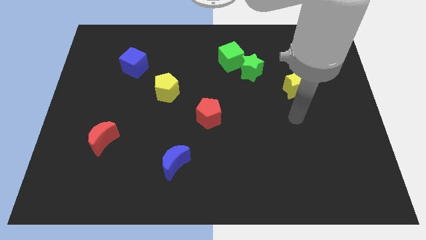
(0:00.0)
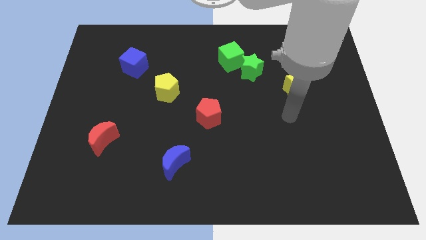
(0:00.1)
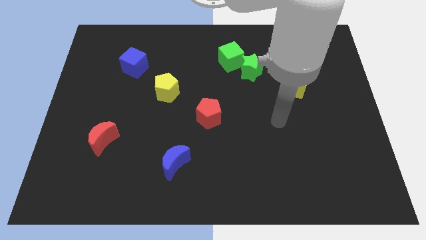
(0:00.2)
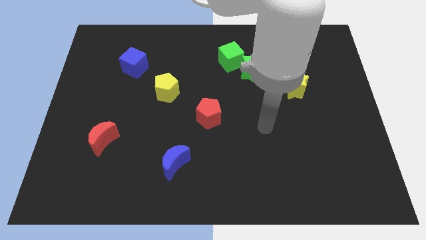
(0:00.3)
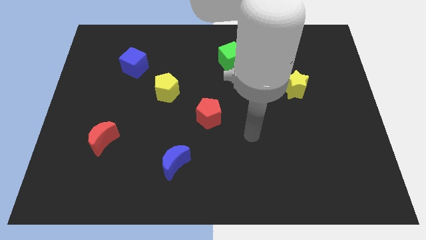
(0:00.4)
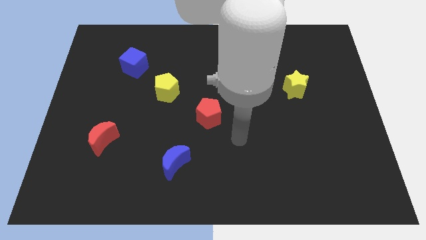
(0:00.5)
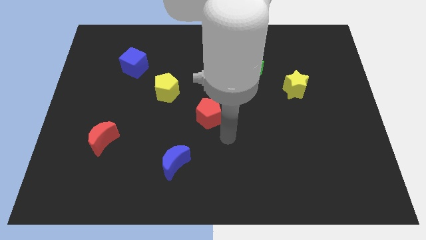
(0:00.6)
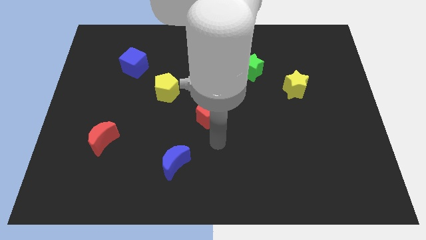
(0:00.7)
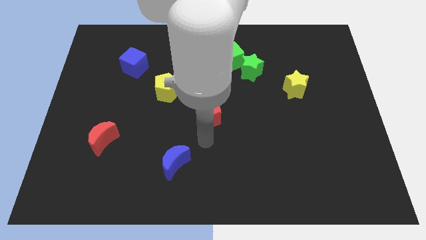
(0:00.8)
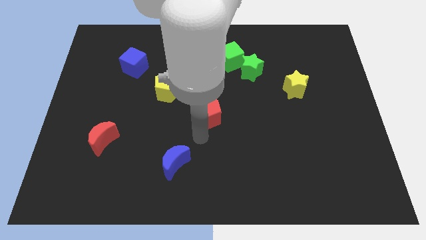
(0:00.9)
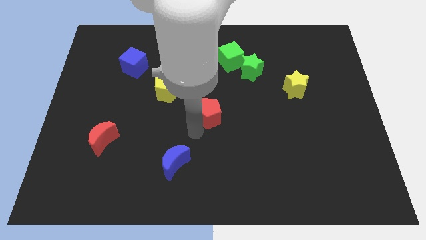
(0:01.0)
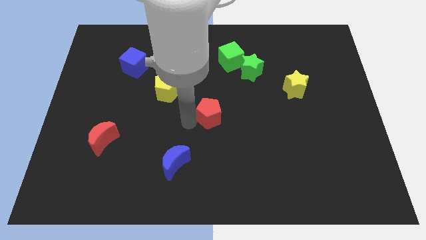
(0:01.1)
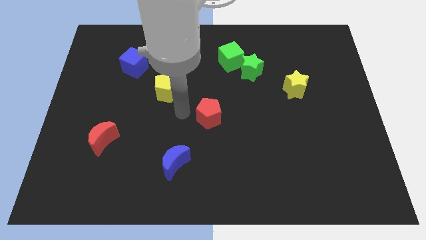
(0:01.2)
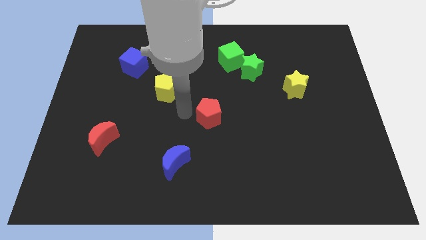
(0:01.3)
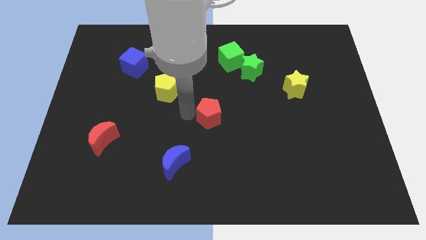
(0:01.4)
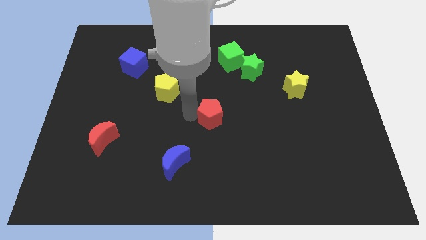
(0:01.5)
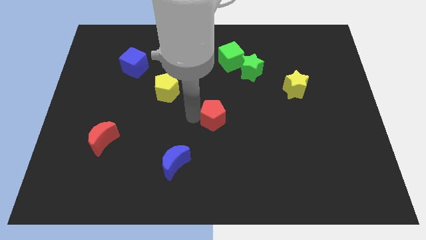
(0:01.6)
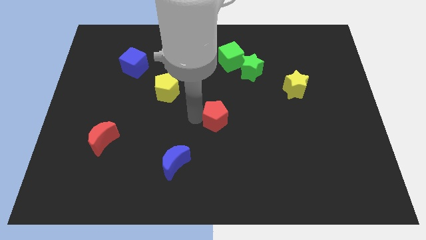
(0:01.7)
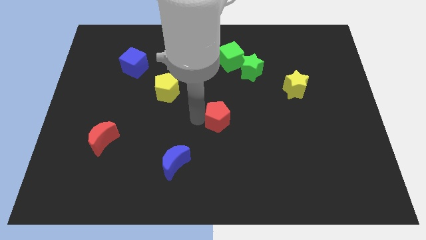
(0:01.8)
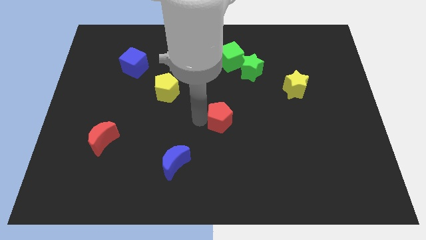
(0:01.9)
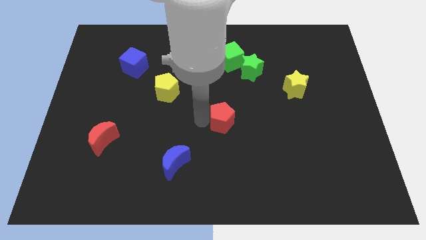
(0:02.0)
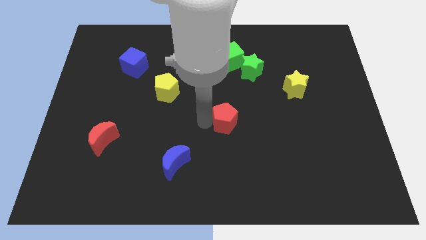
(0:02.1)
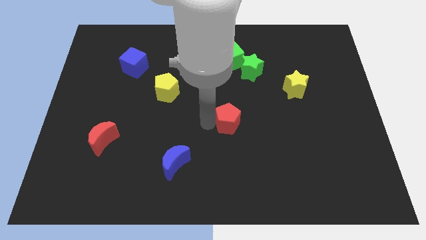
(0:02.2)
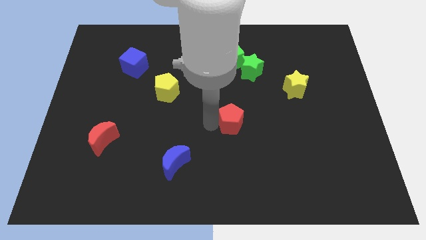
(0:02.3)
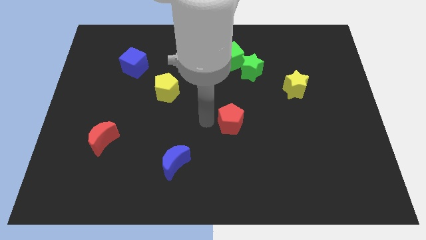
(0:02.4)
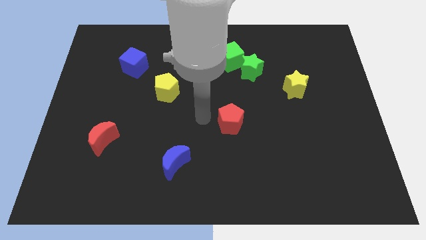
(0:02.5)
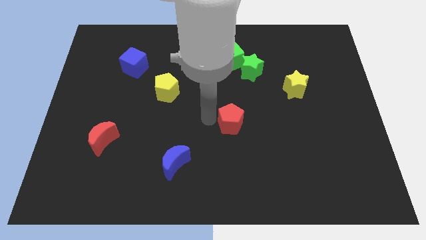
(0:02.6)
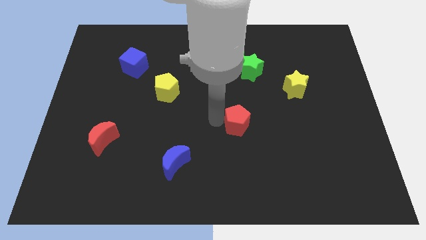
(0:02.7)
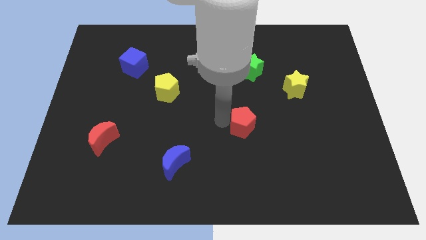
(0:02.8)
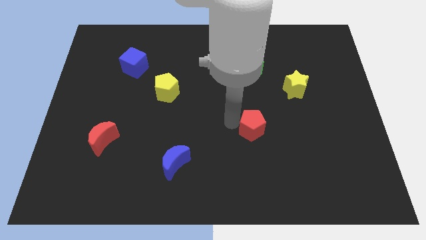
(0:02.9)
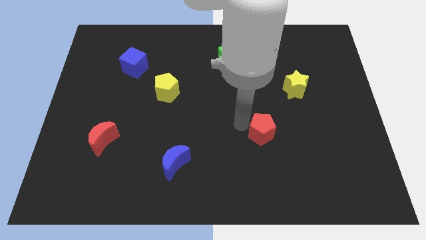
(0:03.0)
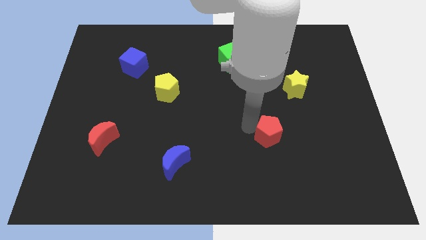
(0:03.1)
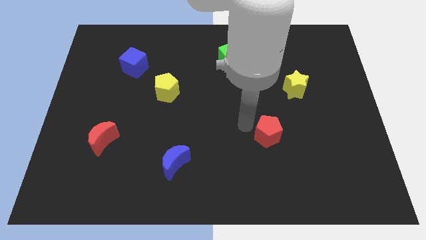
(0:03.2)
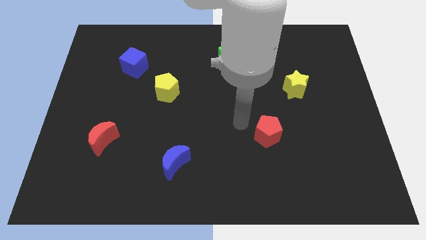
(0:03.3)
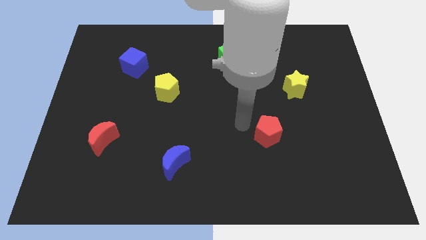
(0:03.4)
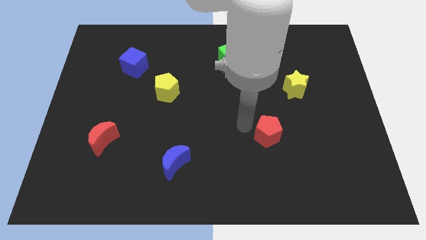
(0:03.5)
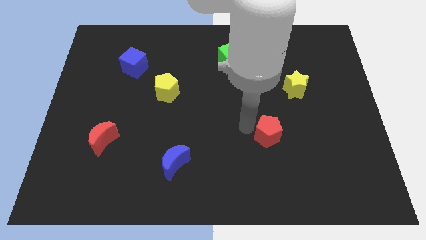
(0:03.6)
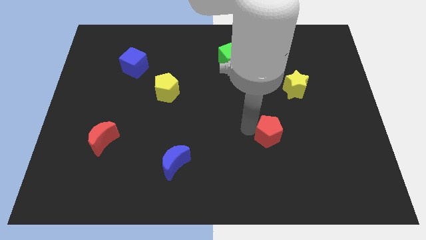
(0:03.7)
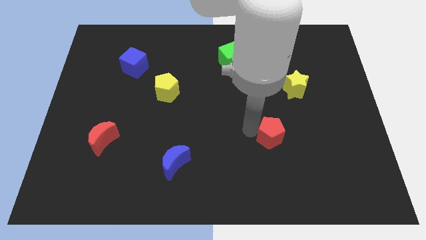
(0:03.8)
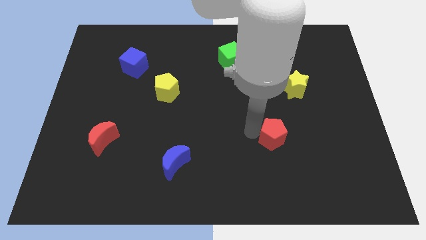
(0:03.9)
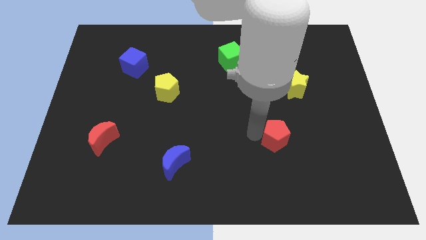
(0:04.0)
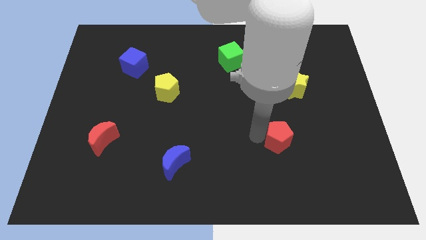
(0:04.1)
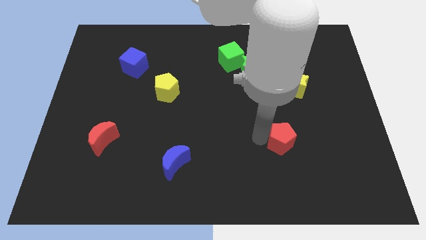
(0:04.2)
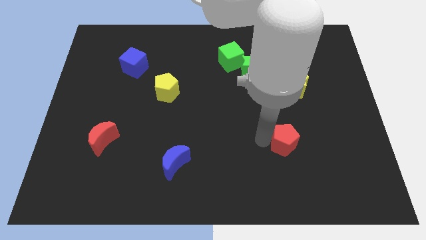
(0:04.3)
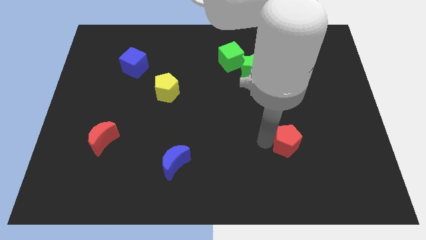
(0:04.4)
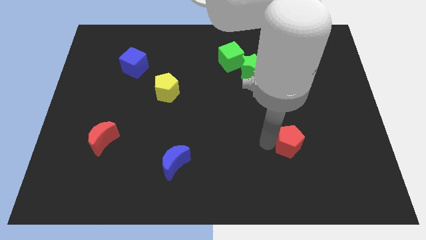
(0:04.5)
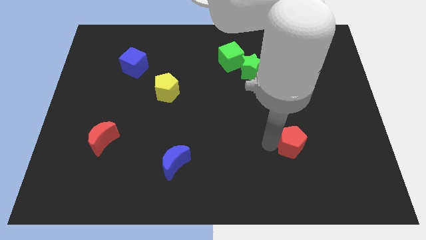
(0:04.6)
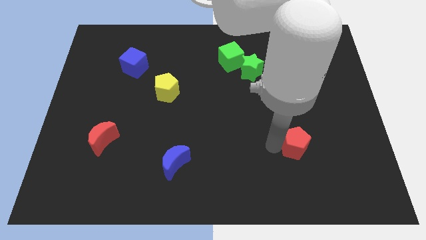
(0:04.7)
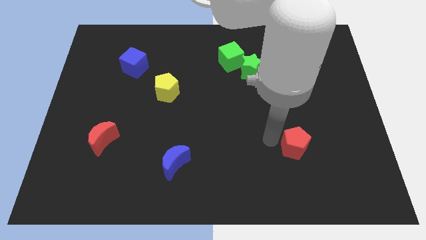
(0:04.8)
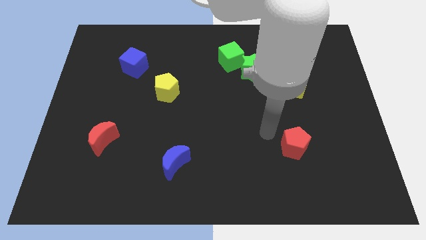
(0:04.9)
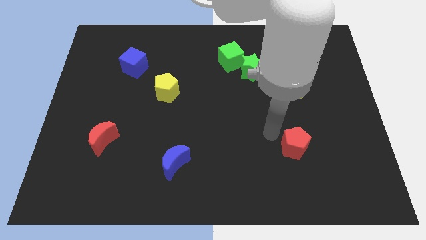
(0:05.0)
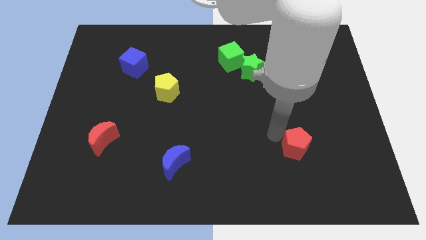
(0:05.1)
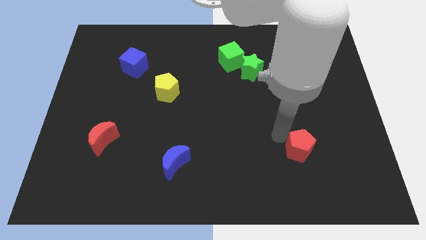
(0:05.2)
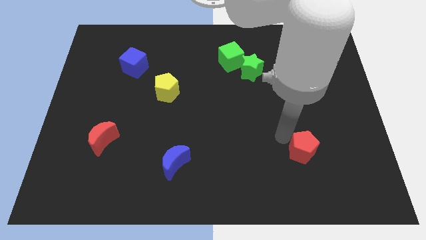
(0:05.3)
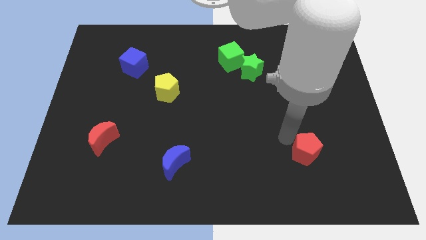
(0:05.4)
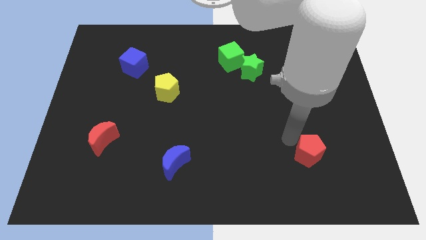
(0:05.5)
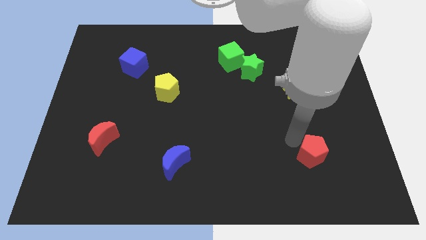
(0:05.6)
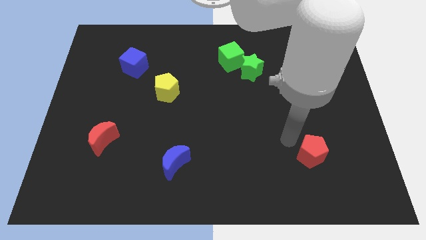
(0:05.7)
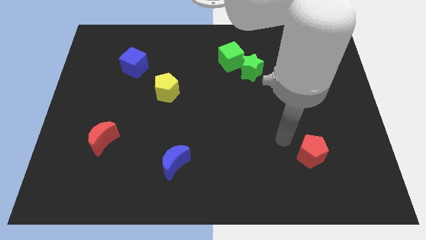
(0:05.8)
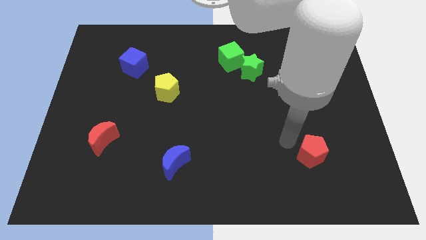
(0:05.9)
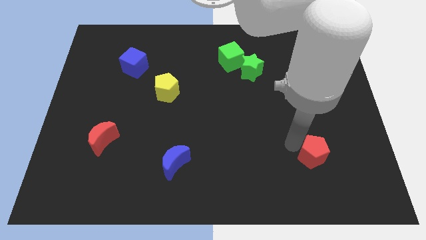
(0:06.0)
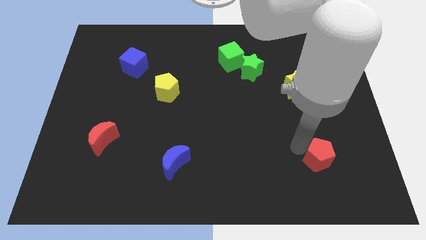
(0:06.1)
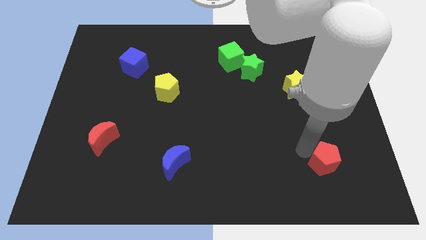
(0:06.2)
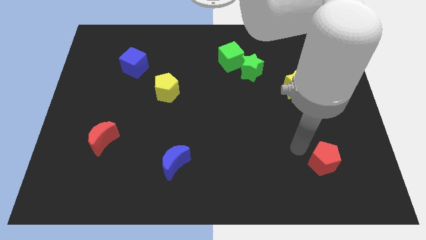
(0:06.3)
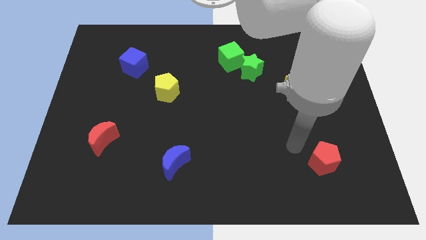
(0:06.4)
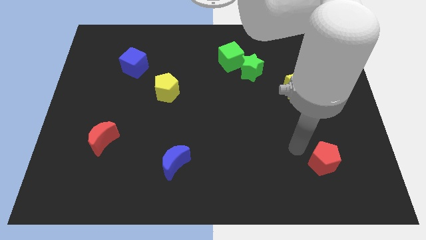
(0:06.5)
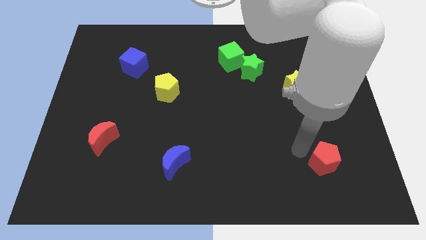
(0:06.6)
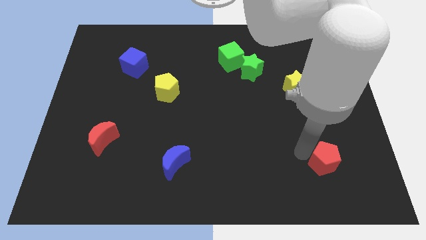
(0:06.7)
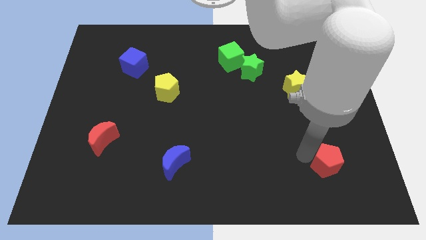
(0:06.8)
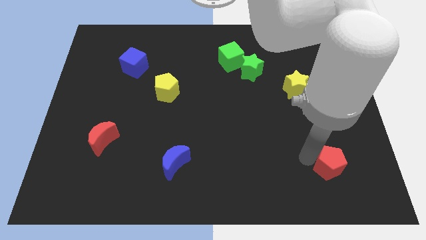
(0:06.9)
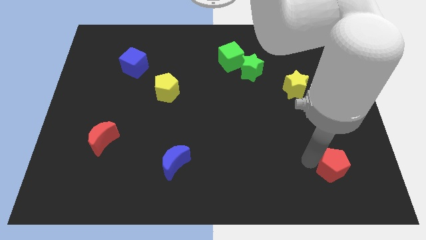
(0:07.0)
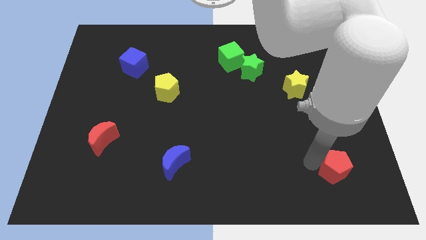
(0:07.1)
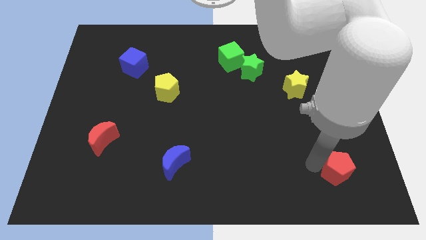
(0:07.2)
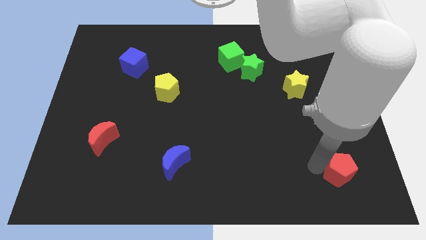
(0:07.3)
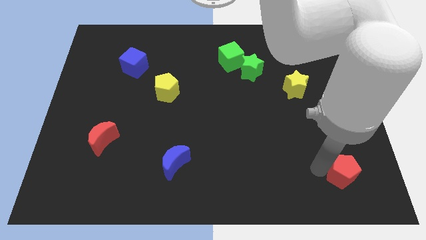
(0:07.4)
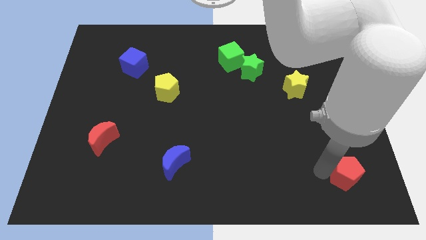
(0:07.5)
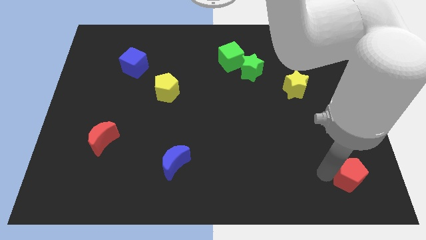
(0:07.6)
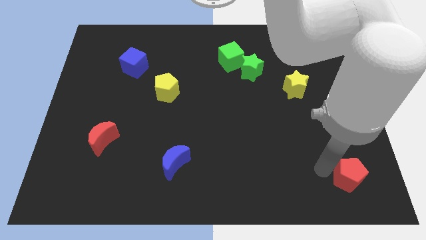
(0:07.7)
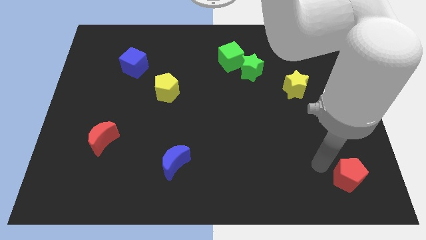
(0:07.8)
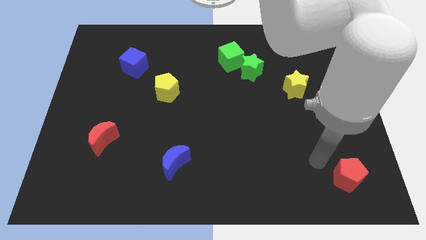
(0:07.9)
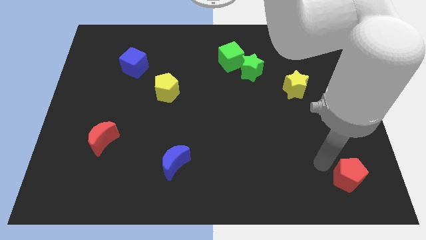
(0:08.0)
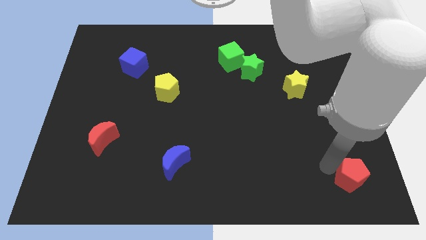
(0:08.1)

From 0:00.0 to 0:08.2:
push the red pentagon to the bottom right corner
